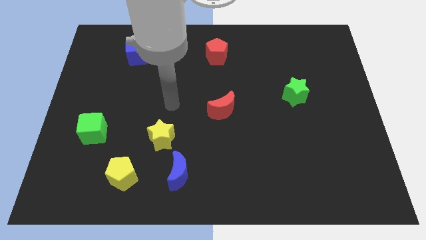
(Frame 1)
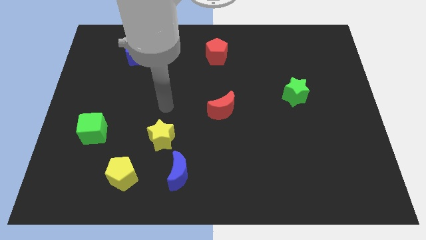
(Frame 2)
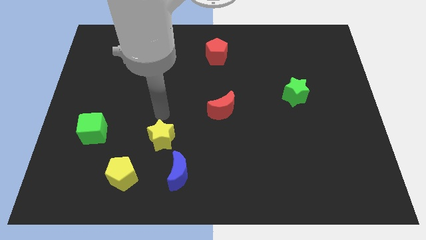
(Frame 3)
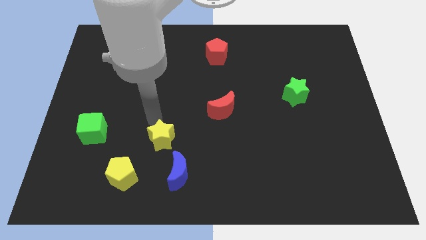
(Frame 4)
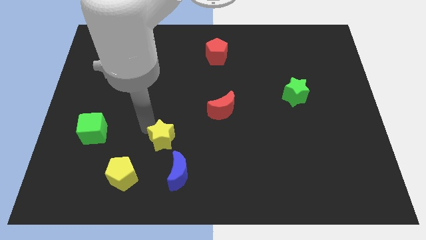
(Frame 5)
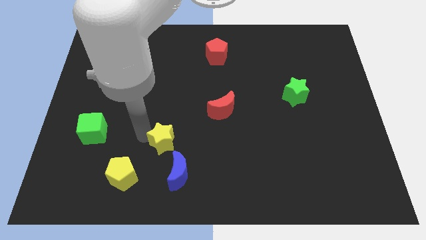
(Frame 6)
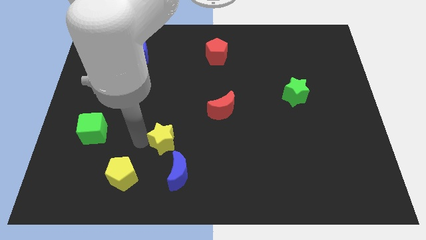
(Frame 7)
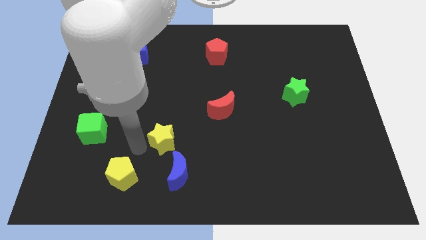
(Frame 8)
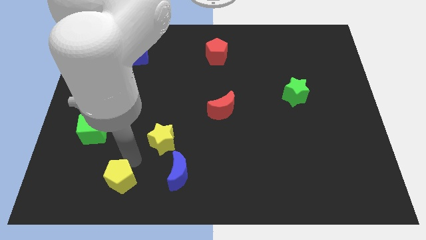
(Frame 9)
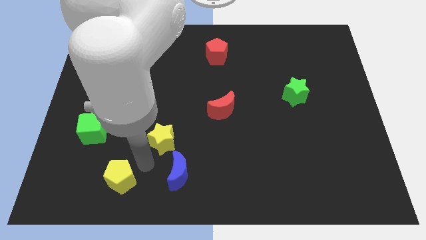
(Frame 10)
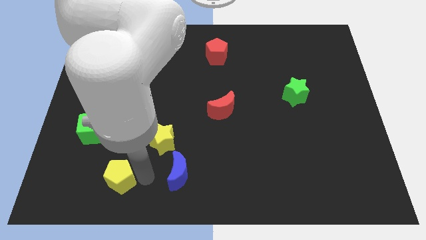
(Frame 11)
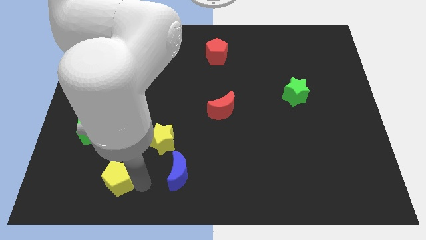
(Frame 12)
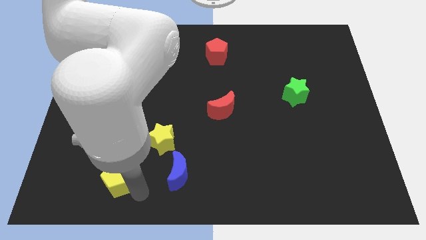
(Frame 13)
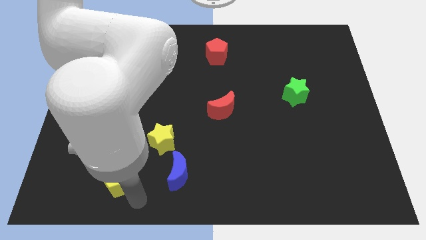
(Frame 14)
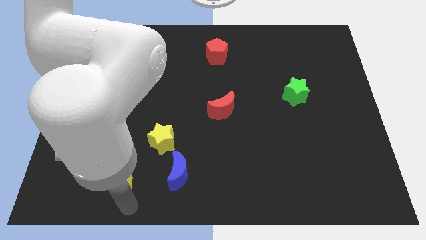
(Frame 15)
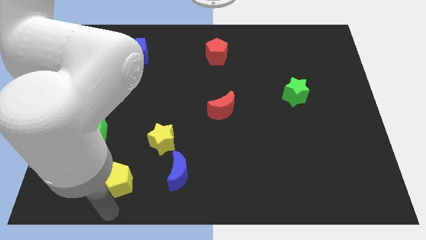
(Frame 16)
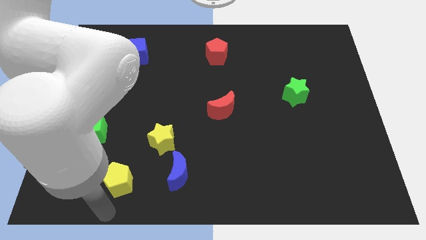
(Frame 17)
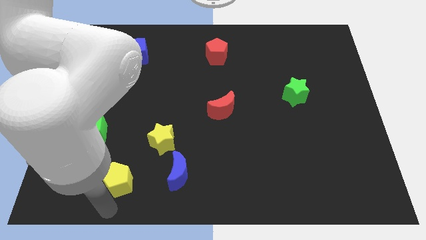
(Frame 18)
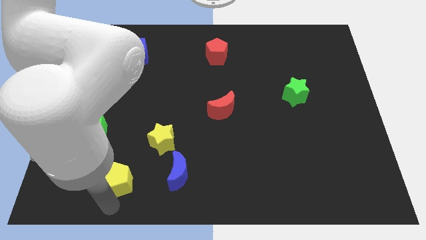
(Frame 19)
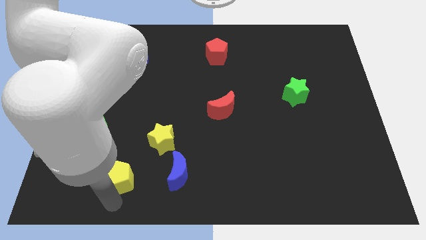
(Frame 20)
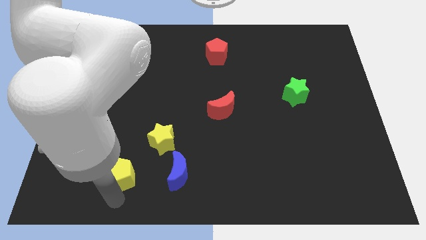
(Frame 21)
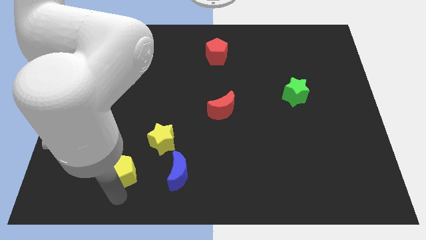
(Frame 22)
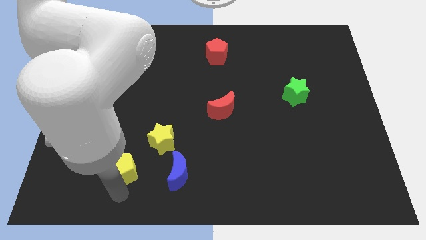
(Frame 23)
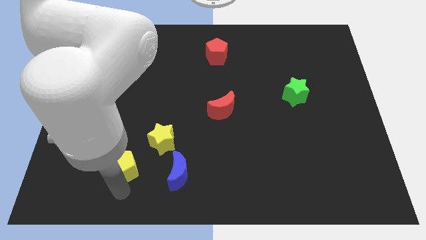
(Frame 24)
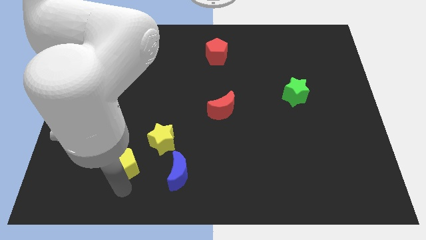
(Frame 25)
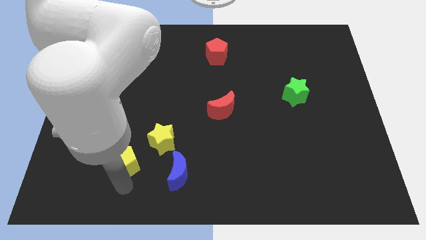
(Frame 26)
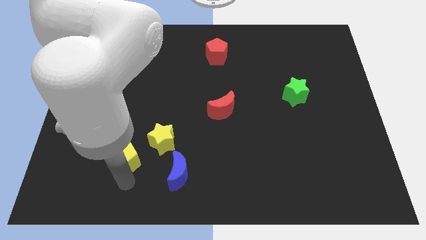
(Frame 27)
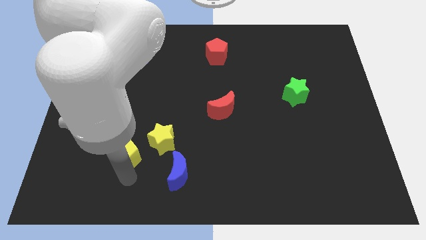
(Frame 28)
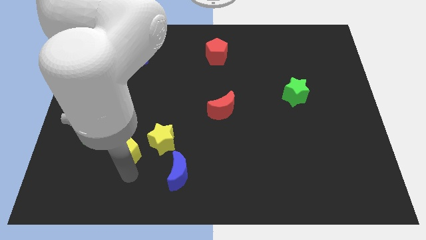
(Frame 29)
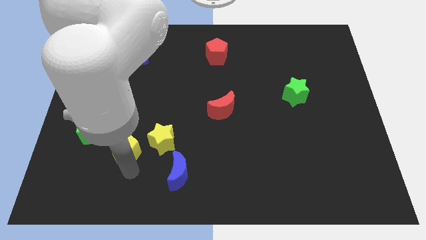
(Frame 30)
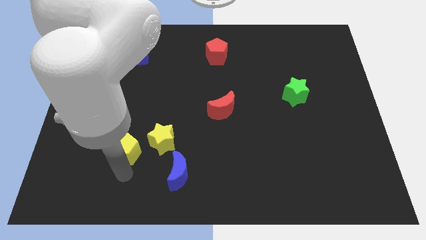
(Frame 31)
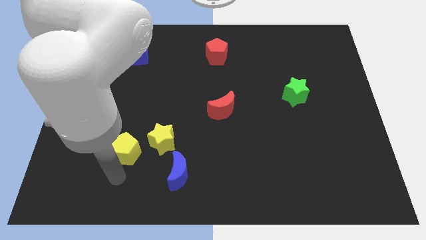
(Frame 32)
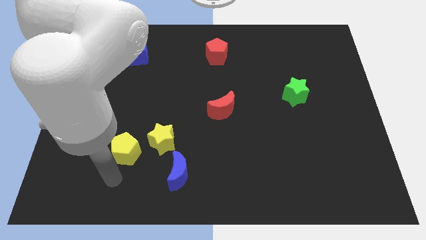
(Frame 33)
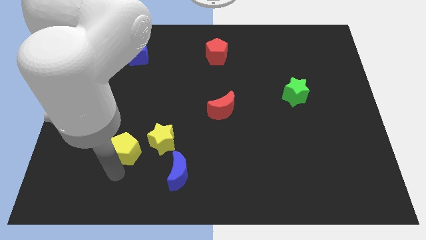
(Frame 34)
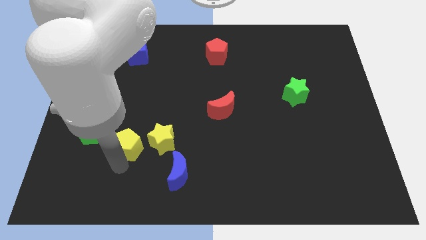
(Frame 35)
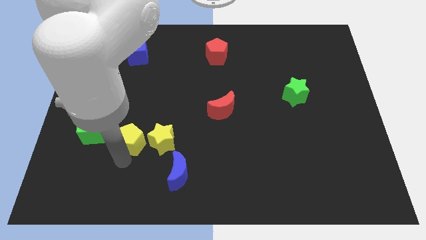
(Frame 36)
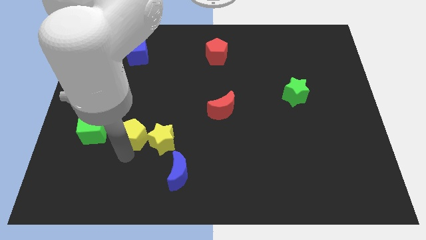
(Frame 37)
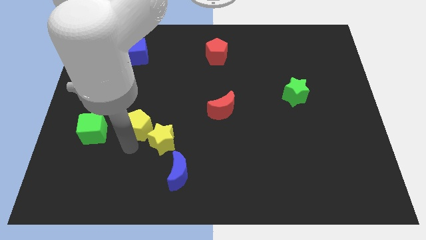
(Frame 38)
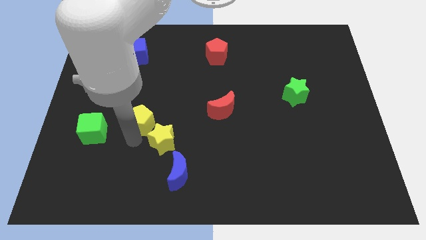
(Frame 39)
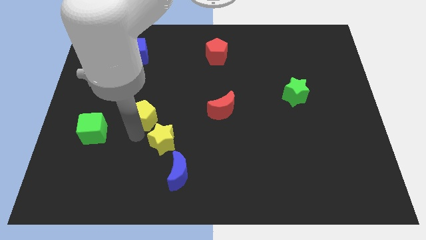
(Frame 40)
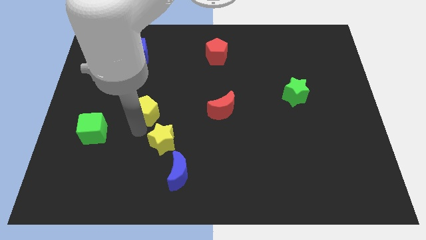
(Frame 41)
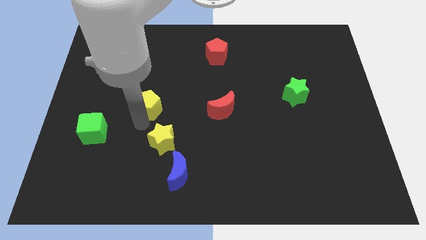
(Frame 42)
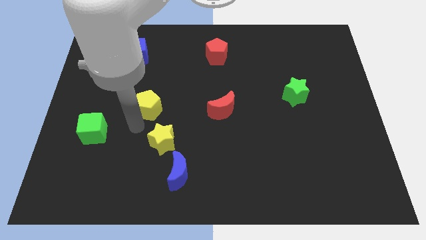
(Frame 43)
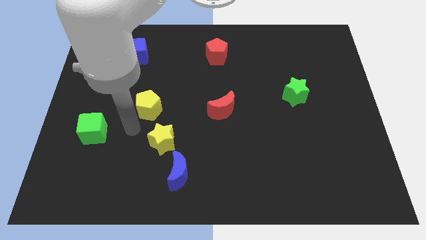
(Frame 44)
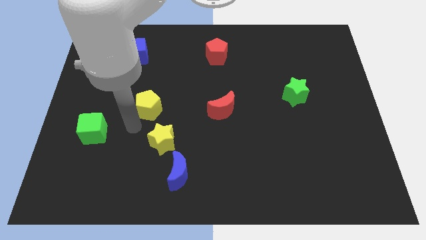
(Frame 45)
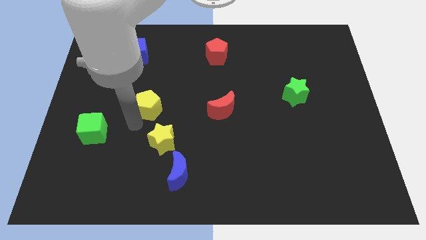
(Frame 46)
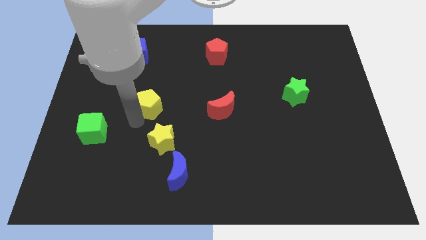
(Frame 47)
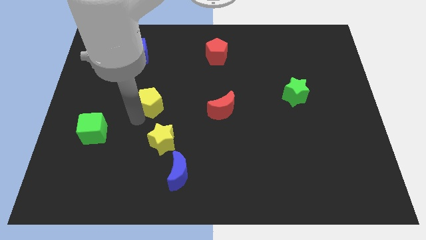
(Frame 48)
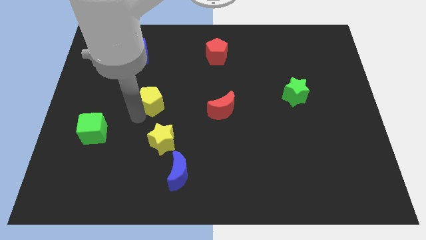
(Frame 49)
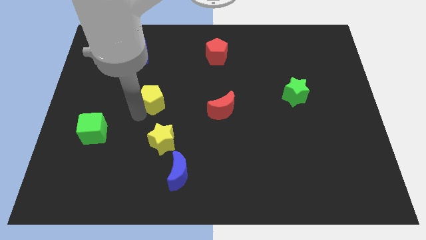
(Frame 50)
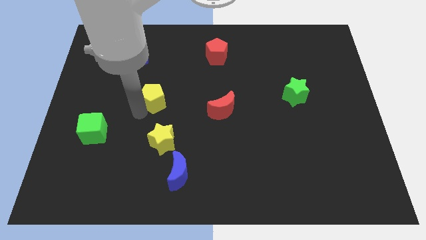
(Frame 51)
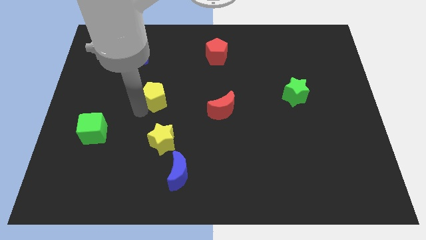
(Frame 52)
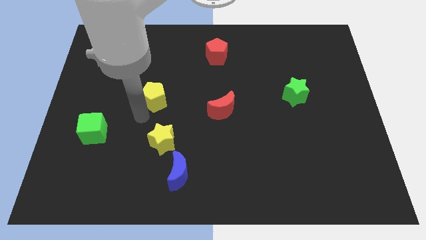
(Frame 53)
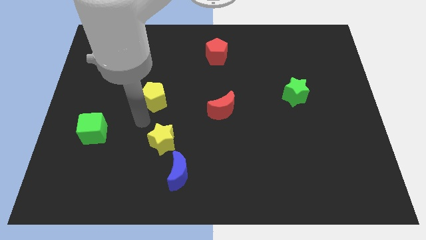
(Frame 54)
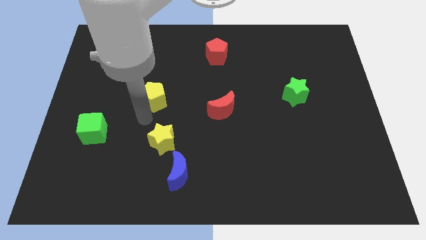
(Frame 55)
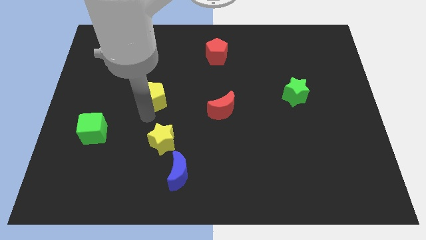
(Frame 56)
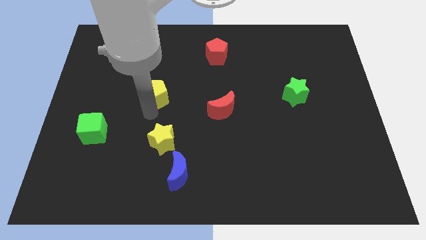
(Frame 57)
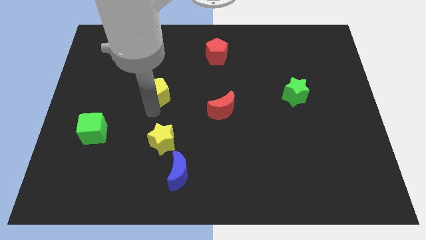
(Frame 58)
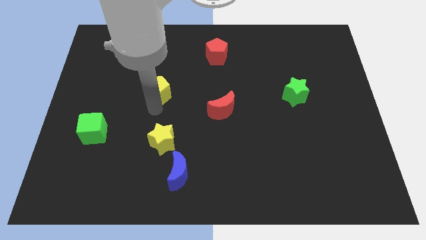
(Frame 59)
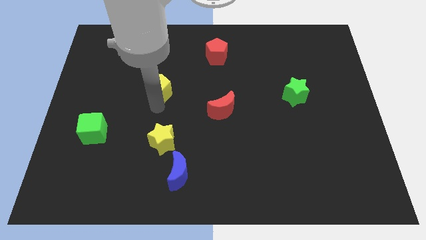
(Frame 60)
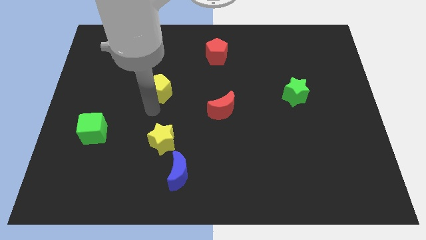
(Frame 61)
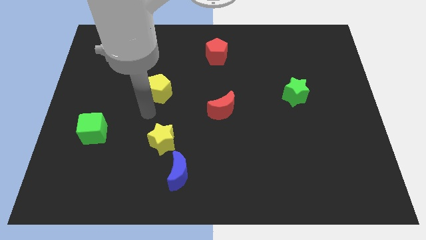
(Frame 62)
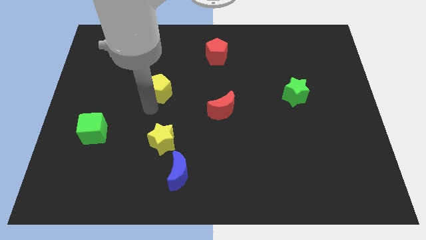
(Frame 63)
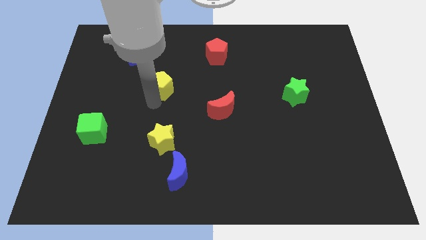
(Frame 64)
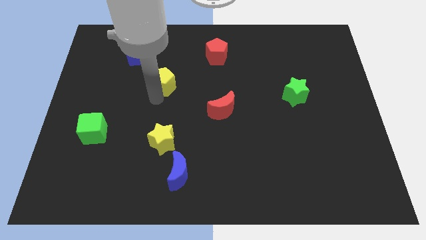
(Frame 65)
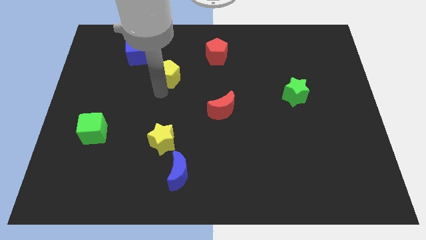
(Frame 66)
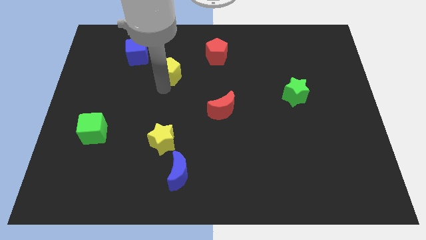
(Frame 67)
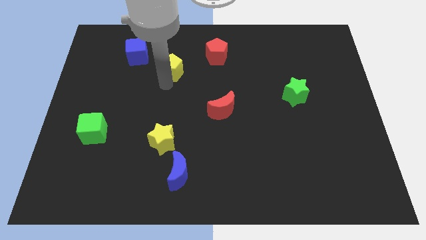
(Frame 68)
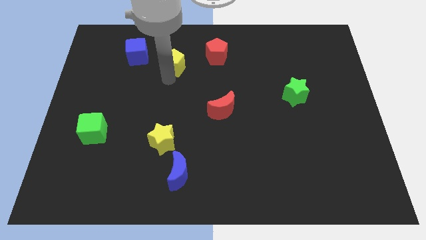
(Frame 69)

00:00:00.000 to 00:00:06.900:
push the yellow pentagon to the left of the red pentagon
